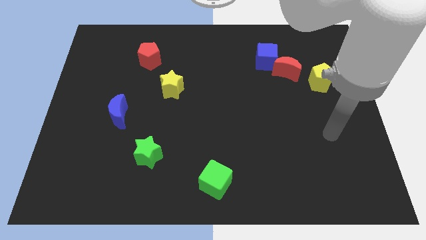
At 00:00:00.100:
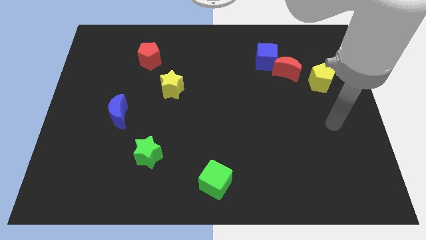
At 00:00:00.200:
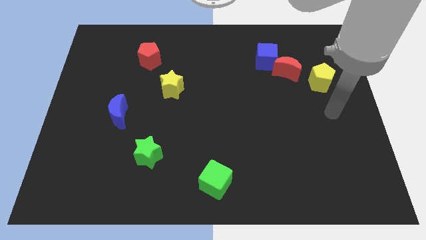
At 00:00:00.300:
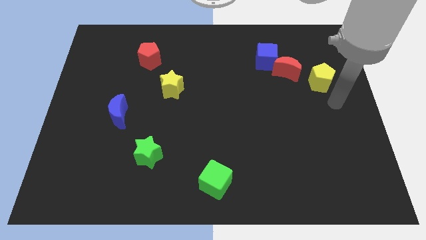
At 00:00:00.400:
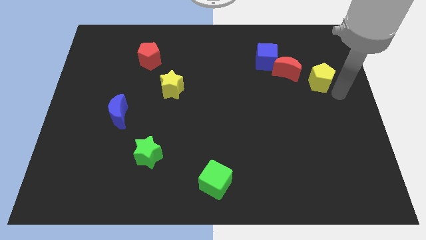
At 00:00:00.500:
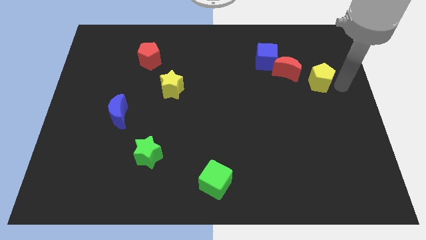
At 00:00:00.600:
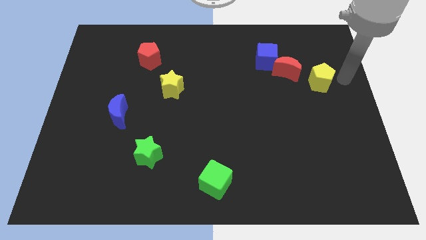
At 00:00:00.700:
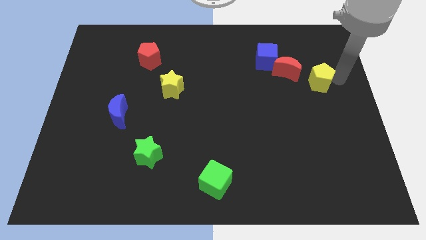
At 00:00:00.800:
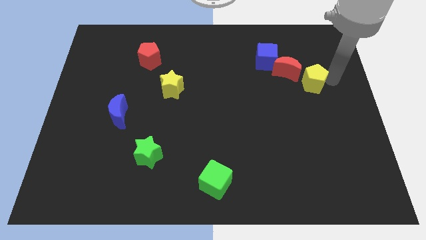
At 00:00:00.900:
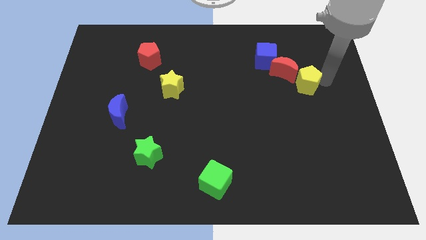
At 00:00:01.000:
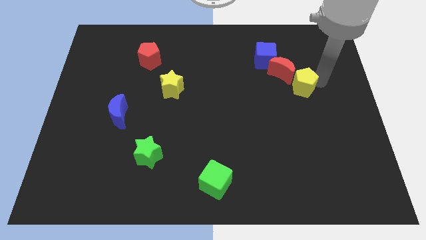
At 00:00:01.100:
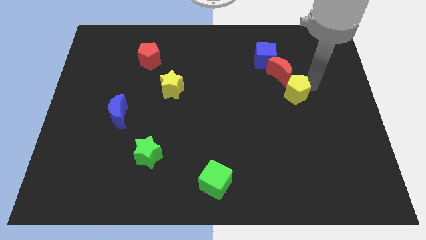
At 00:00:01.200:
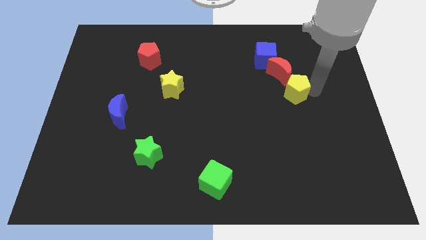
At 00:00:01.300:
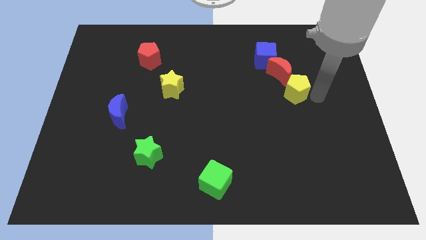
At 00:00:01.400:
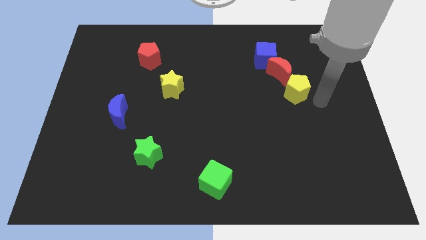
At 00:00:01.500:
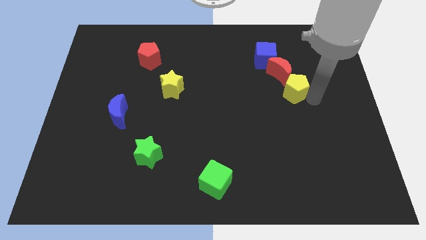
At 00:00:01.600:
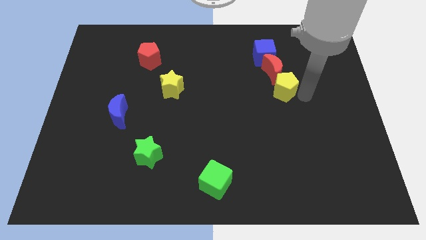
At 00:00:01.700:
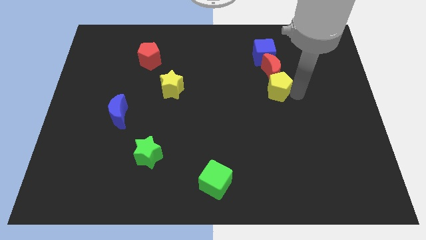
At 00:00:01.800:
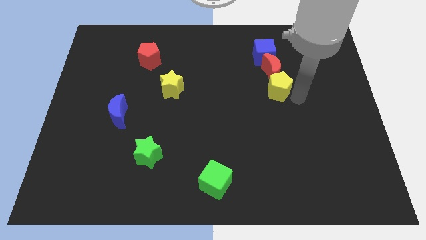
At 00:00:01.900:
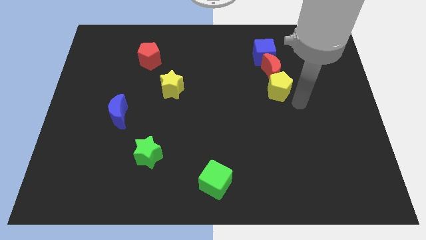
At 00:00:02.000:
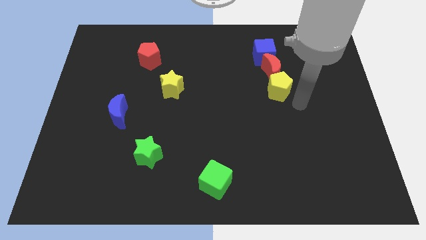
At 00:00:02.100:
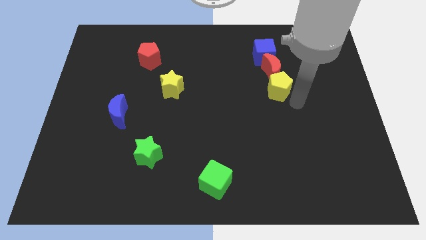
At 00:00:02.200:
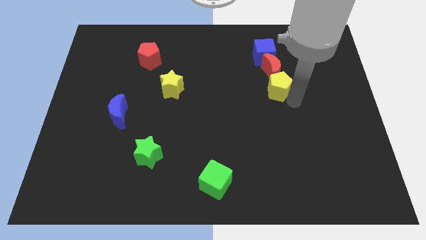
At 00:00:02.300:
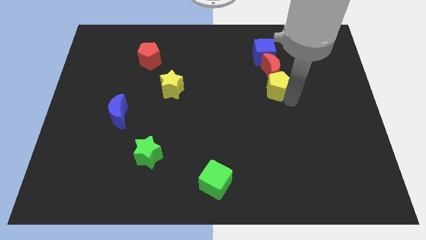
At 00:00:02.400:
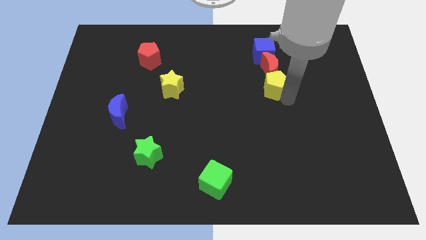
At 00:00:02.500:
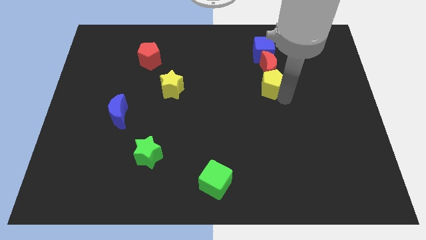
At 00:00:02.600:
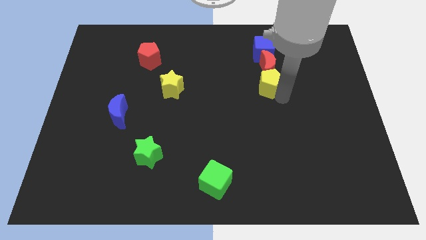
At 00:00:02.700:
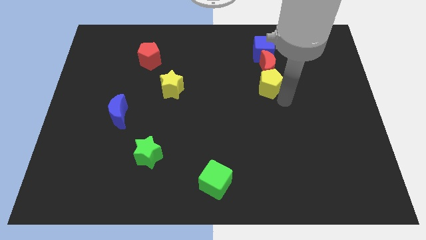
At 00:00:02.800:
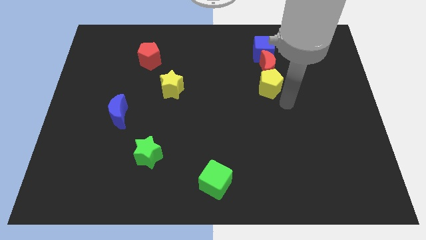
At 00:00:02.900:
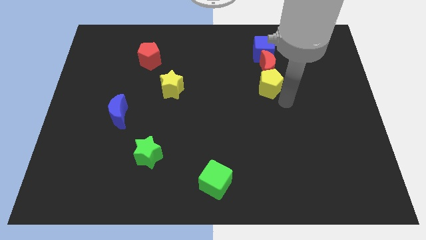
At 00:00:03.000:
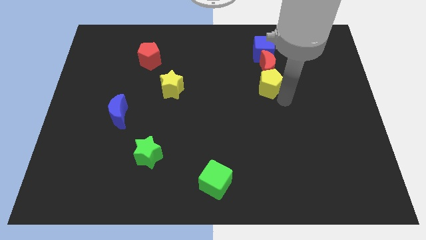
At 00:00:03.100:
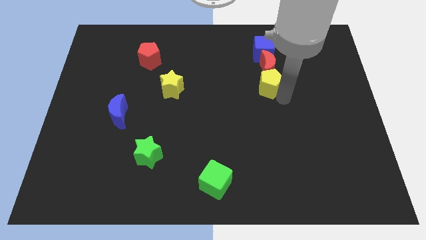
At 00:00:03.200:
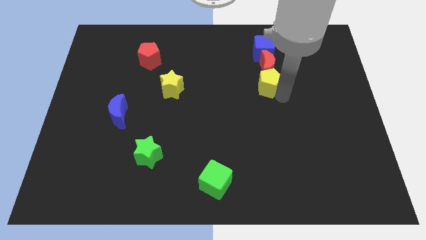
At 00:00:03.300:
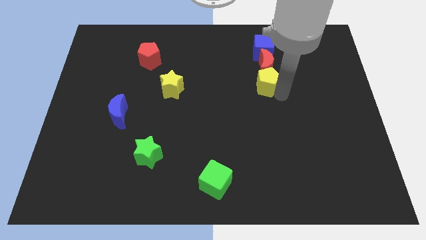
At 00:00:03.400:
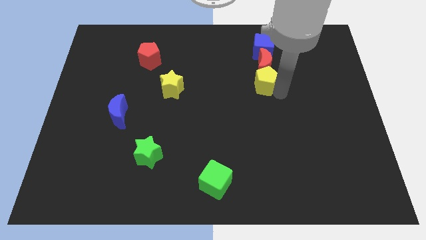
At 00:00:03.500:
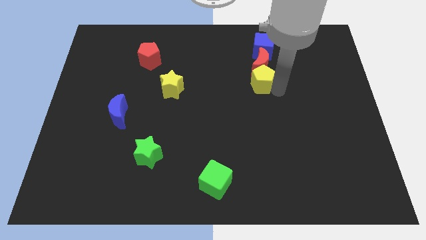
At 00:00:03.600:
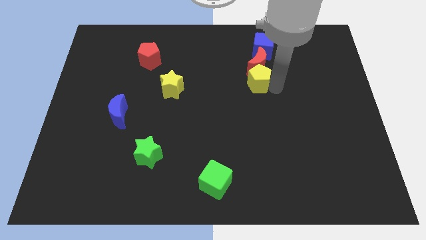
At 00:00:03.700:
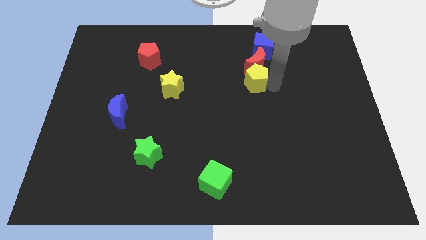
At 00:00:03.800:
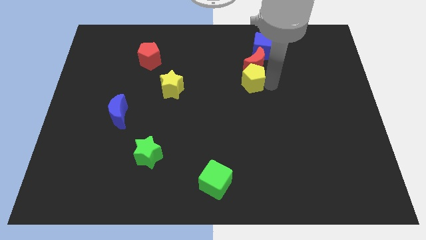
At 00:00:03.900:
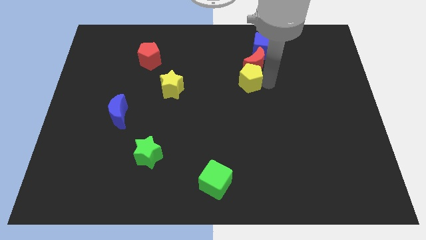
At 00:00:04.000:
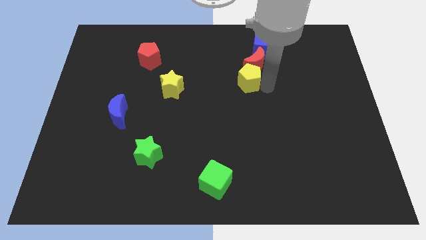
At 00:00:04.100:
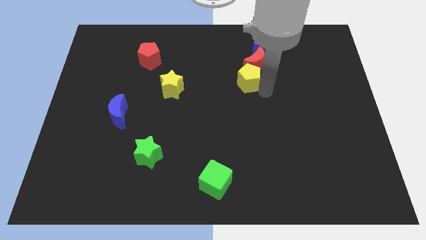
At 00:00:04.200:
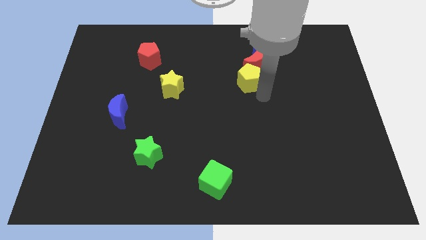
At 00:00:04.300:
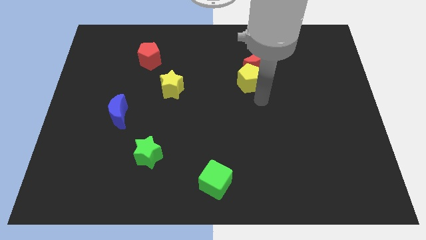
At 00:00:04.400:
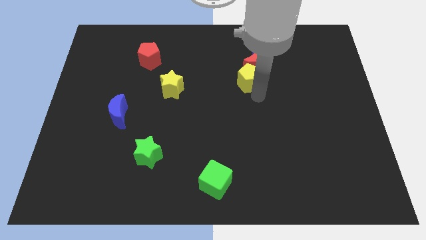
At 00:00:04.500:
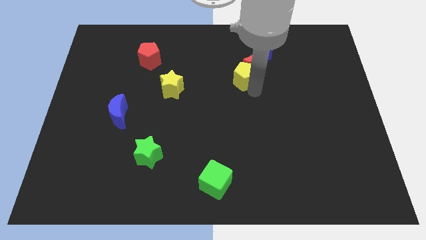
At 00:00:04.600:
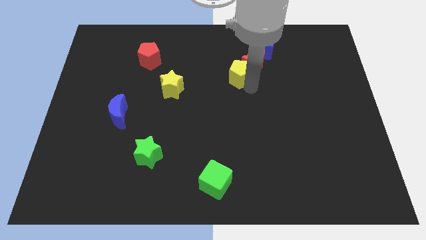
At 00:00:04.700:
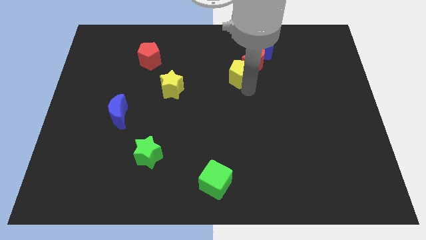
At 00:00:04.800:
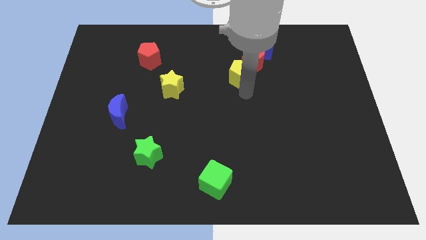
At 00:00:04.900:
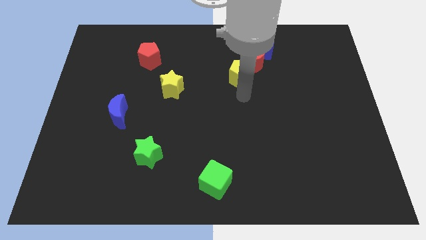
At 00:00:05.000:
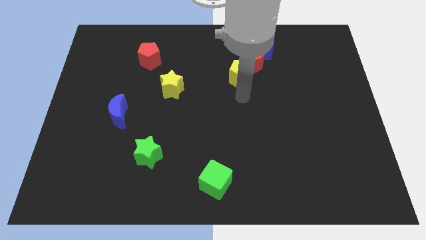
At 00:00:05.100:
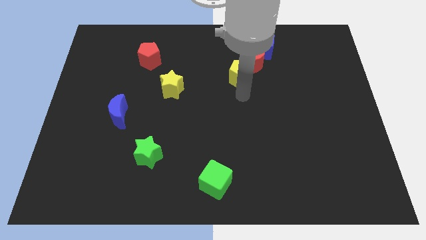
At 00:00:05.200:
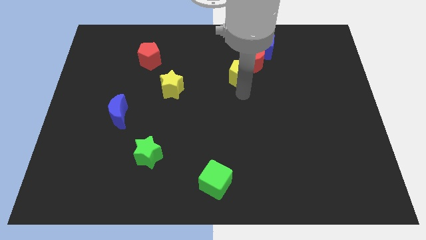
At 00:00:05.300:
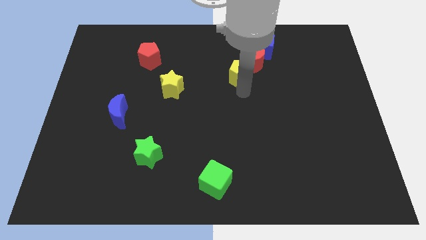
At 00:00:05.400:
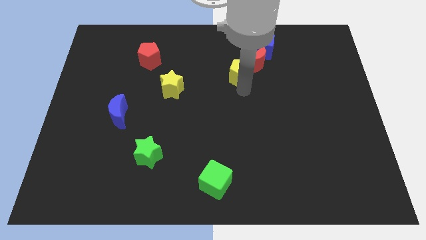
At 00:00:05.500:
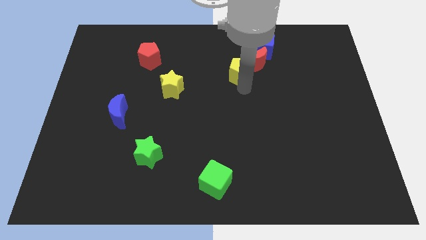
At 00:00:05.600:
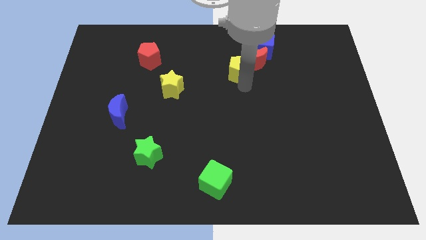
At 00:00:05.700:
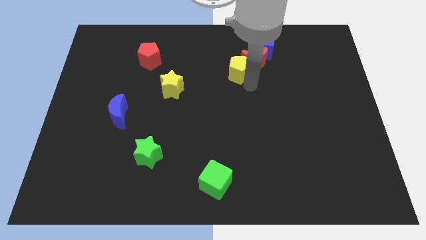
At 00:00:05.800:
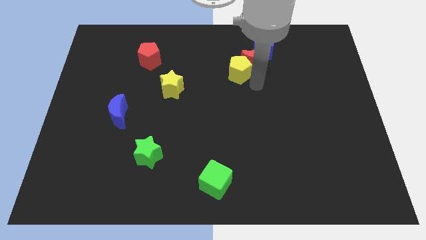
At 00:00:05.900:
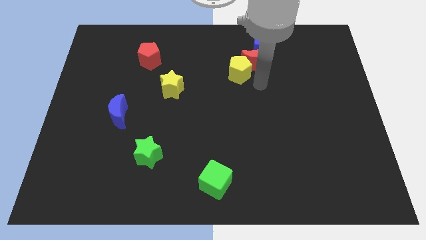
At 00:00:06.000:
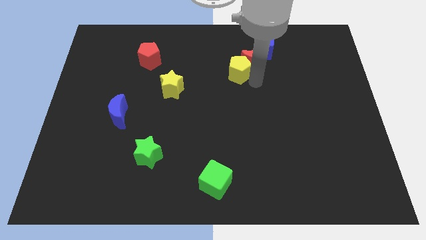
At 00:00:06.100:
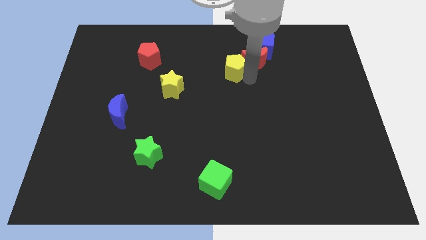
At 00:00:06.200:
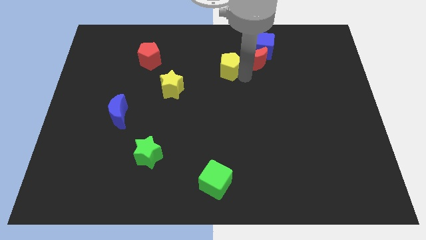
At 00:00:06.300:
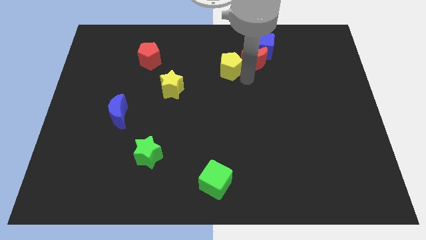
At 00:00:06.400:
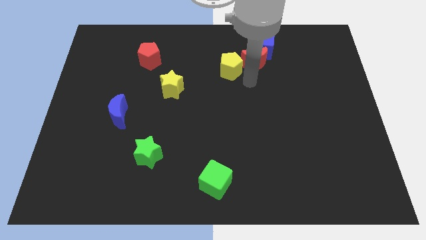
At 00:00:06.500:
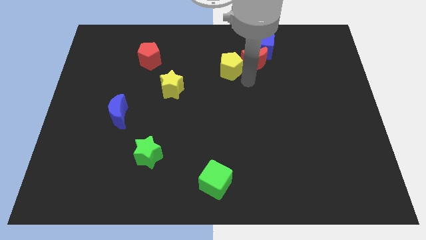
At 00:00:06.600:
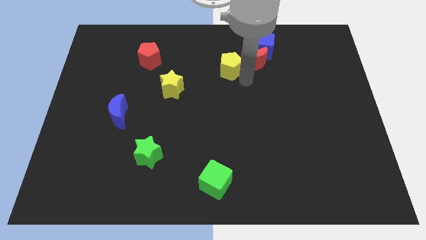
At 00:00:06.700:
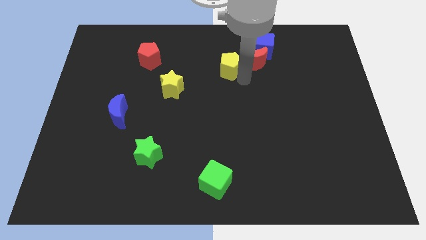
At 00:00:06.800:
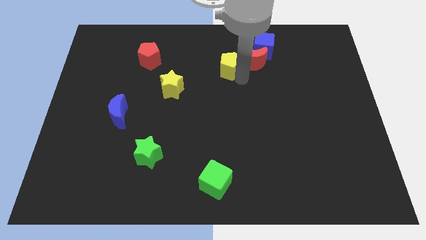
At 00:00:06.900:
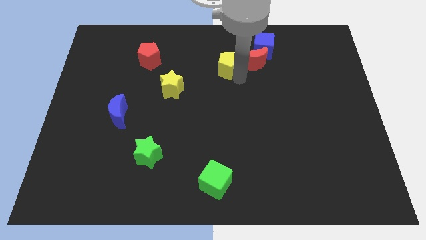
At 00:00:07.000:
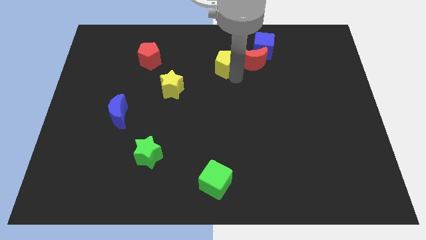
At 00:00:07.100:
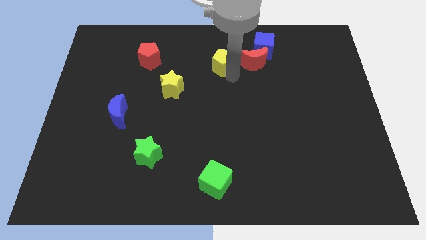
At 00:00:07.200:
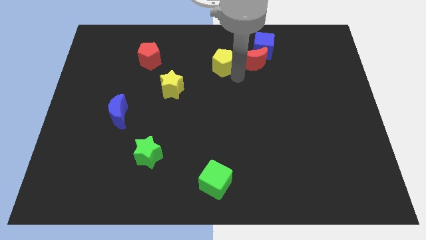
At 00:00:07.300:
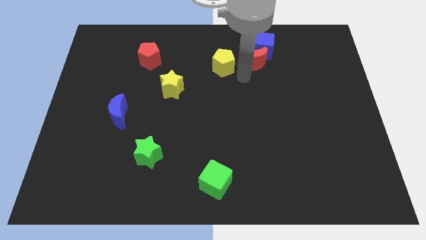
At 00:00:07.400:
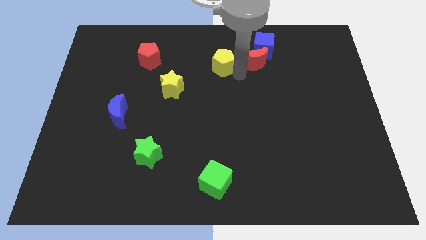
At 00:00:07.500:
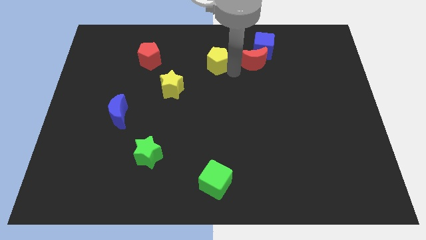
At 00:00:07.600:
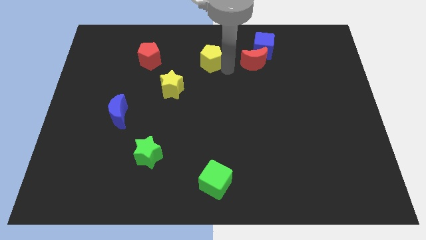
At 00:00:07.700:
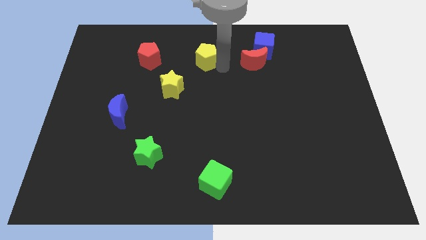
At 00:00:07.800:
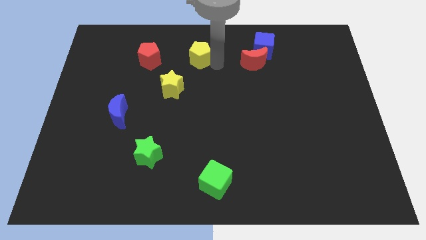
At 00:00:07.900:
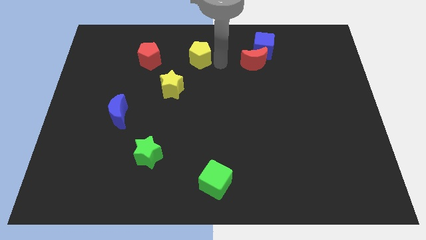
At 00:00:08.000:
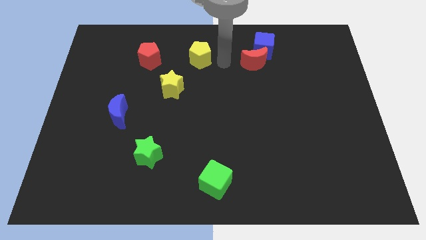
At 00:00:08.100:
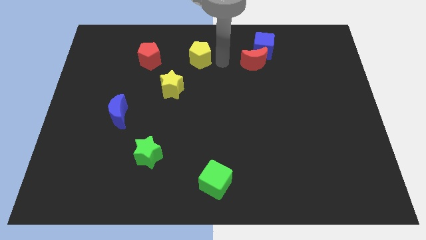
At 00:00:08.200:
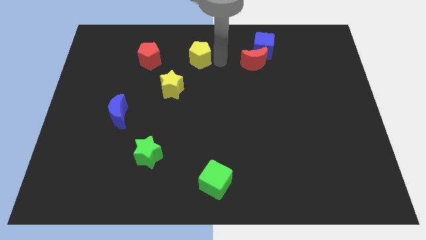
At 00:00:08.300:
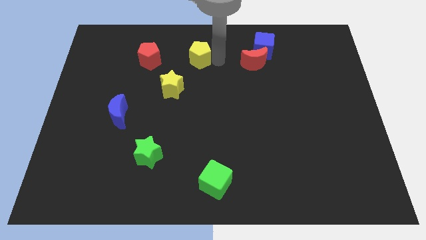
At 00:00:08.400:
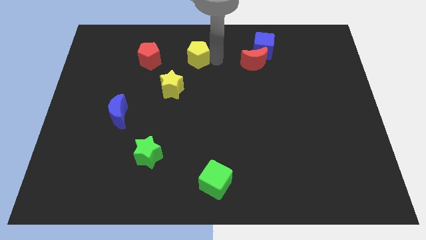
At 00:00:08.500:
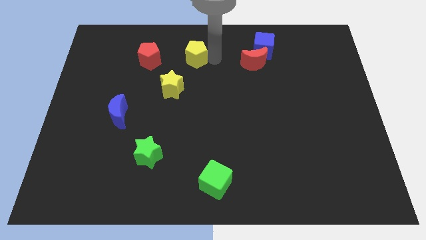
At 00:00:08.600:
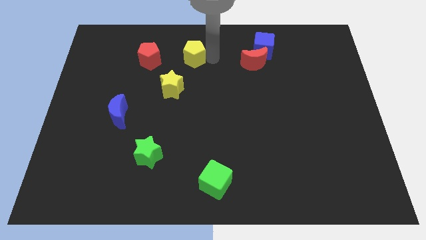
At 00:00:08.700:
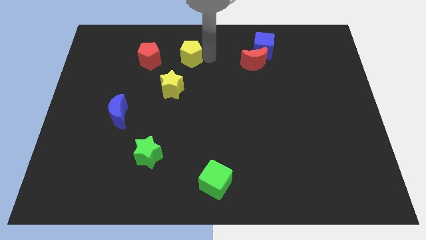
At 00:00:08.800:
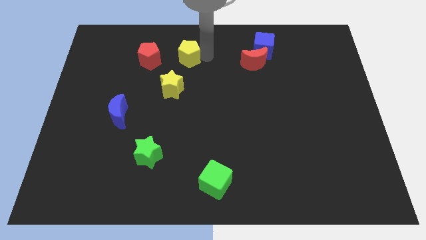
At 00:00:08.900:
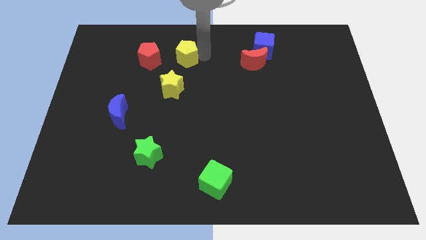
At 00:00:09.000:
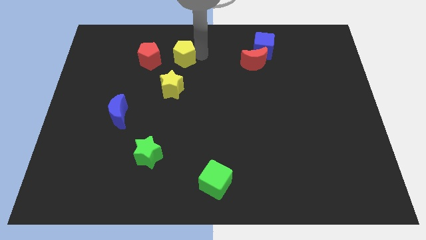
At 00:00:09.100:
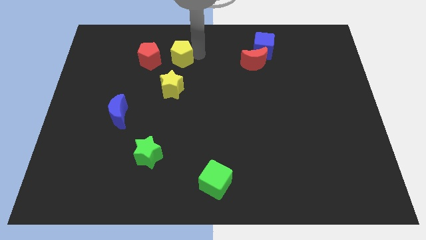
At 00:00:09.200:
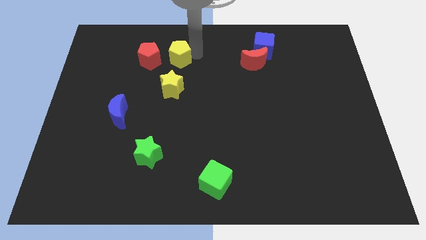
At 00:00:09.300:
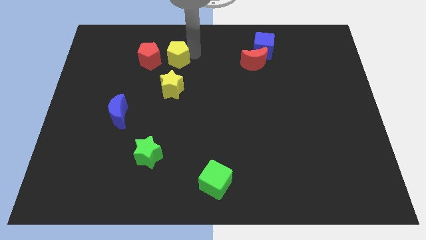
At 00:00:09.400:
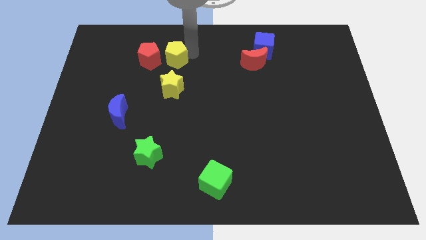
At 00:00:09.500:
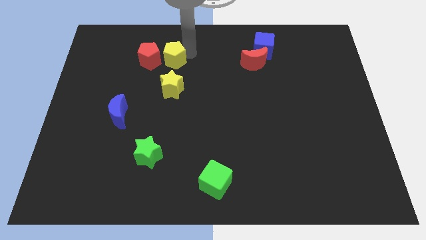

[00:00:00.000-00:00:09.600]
push the yellow pentagon next to the red pentagon
